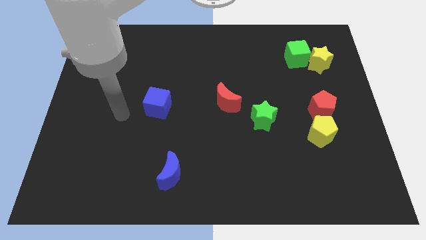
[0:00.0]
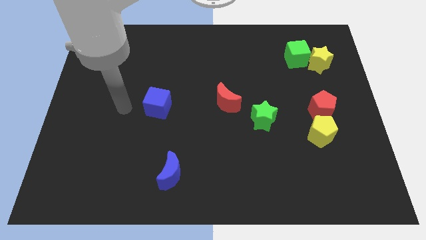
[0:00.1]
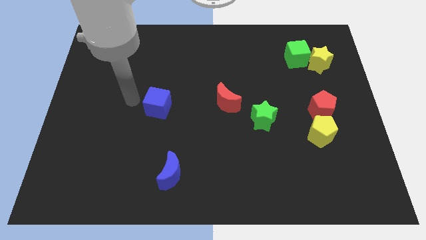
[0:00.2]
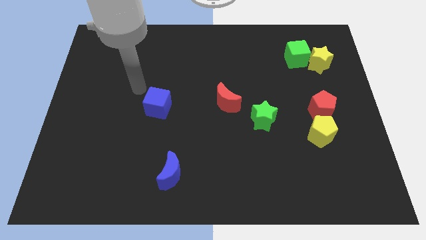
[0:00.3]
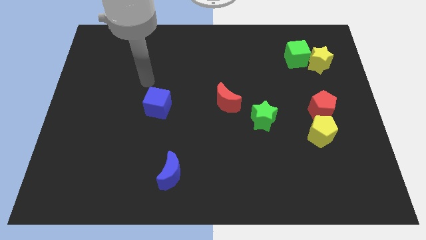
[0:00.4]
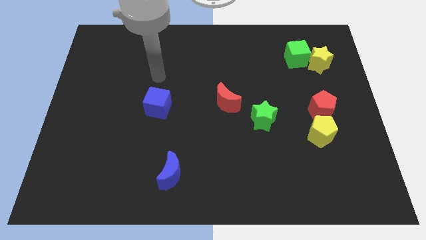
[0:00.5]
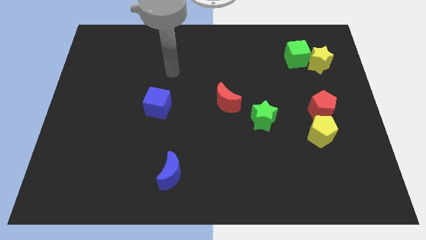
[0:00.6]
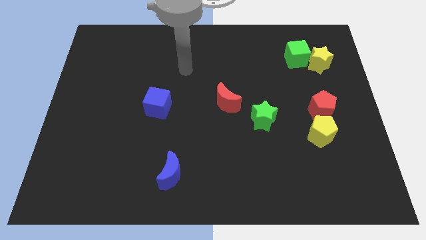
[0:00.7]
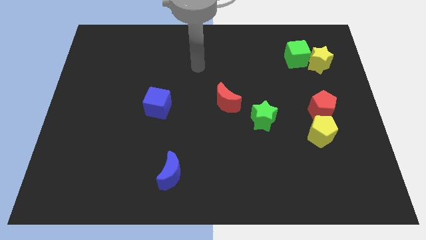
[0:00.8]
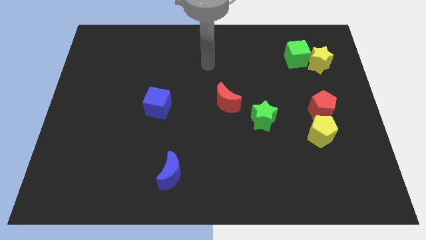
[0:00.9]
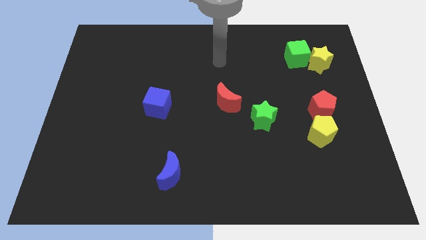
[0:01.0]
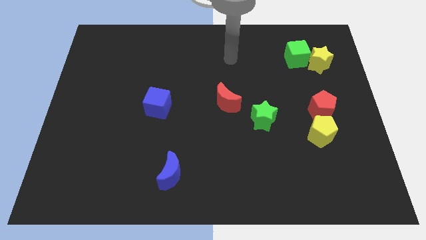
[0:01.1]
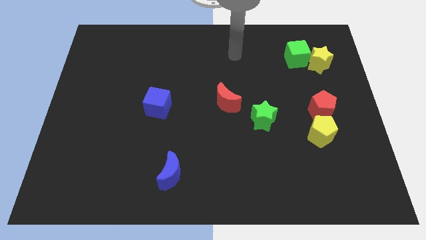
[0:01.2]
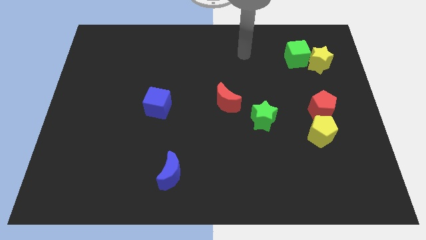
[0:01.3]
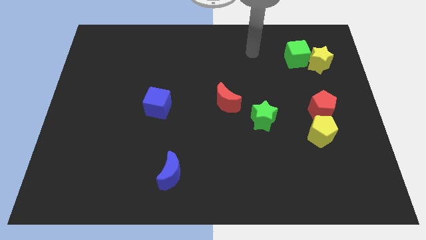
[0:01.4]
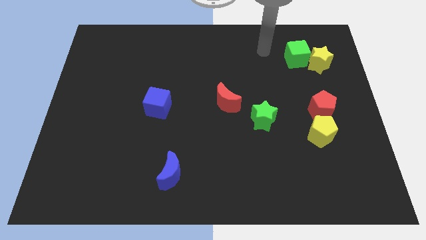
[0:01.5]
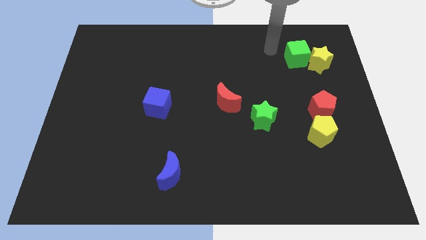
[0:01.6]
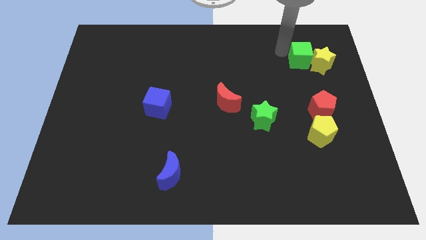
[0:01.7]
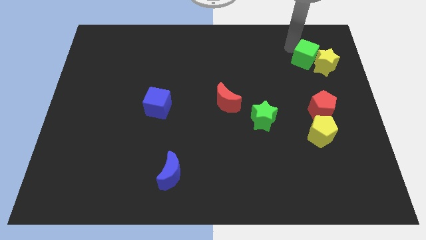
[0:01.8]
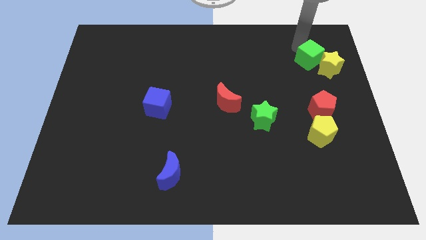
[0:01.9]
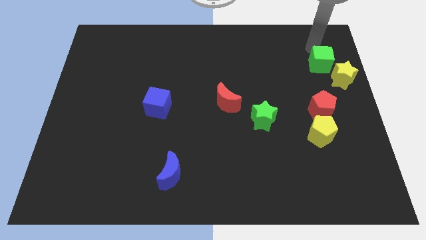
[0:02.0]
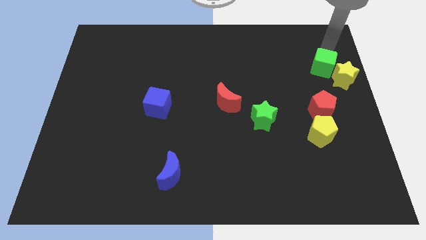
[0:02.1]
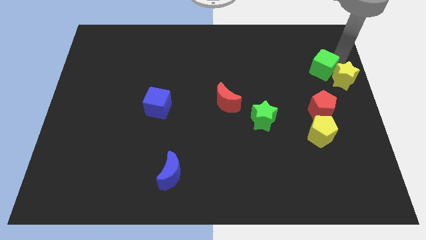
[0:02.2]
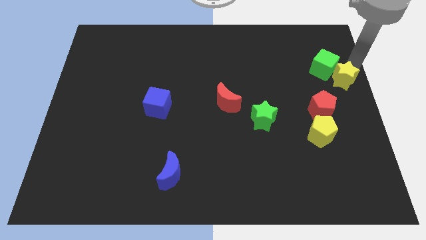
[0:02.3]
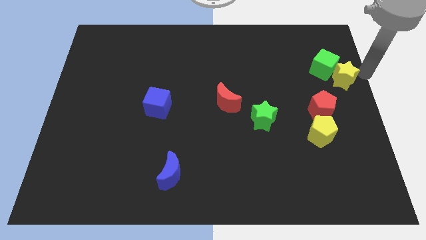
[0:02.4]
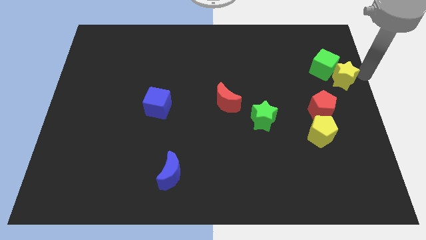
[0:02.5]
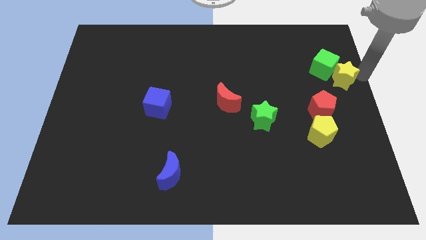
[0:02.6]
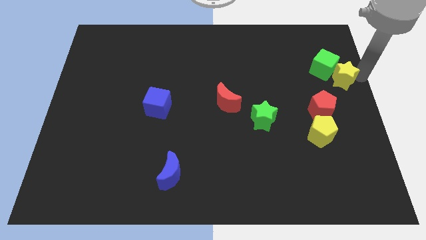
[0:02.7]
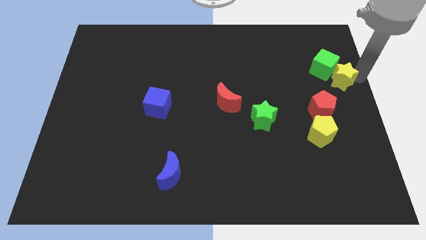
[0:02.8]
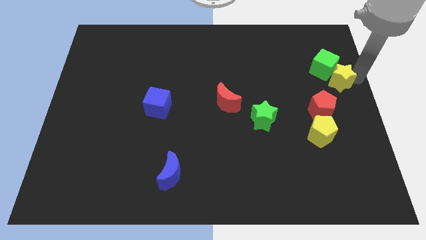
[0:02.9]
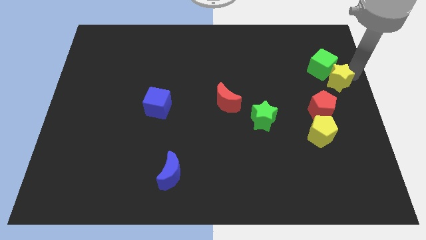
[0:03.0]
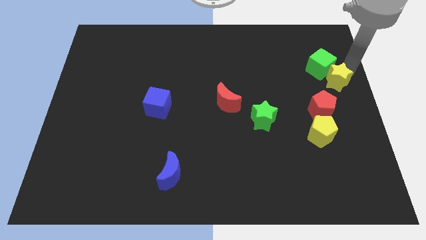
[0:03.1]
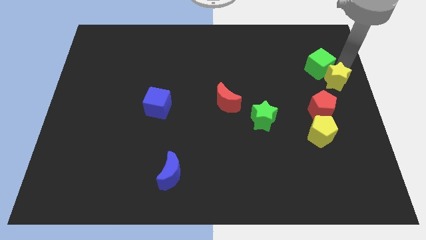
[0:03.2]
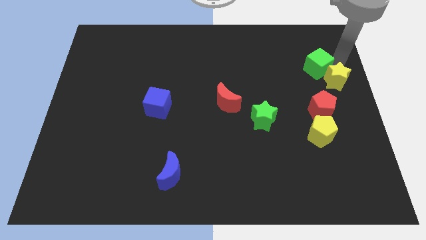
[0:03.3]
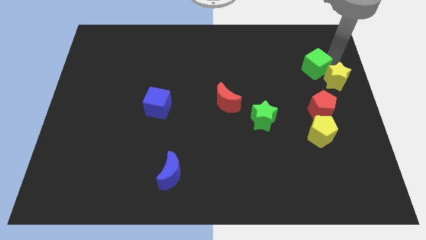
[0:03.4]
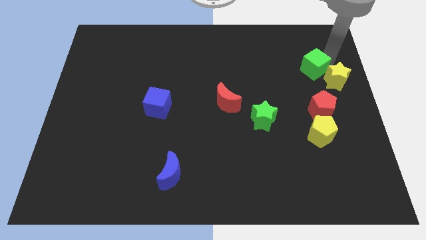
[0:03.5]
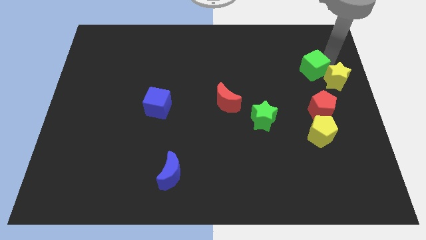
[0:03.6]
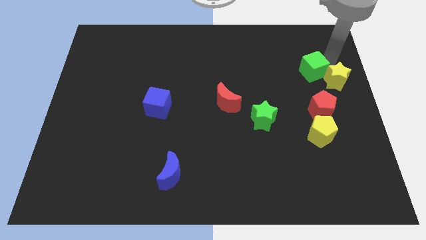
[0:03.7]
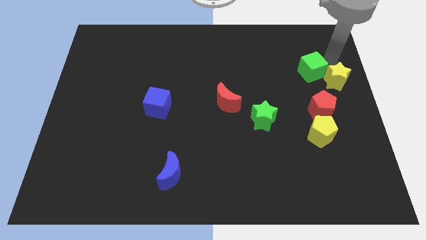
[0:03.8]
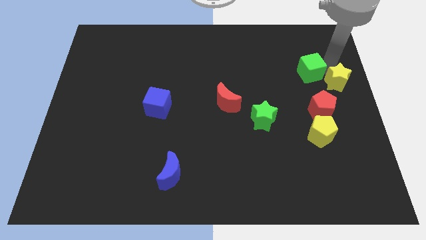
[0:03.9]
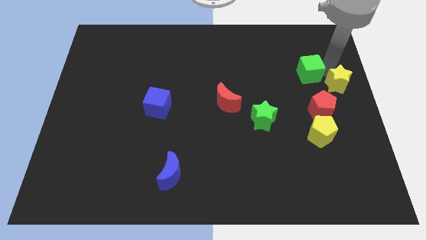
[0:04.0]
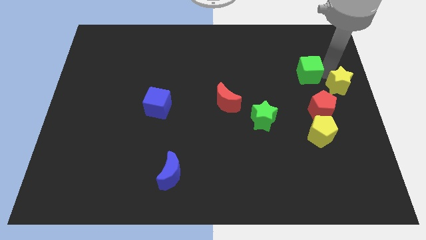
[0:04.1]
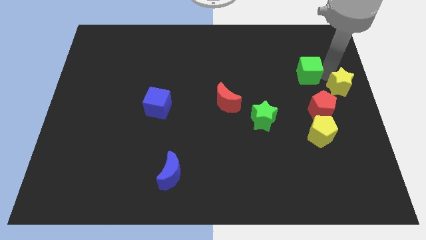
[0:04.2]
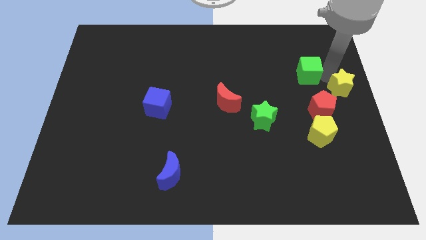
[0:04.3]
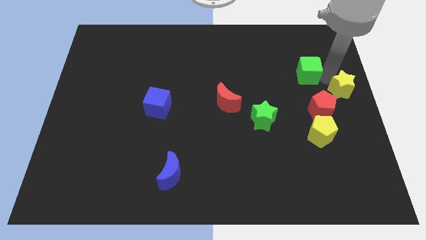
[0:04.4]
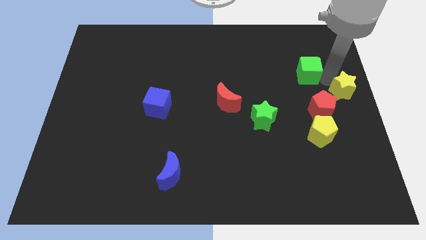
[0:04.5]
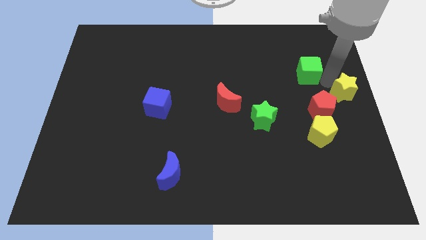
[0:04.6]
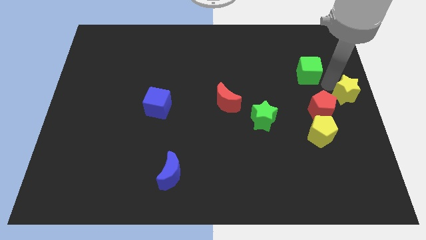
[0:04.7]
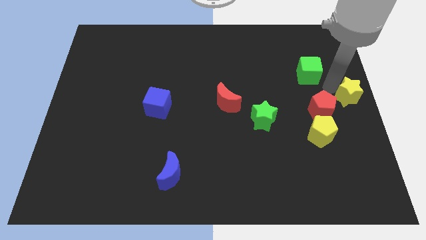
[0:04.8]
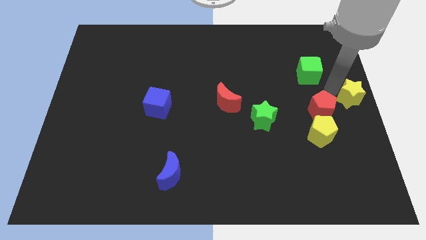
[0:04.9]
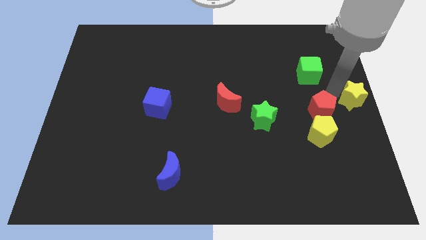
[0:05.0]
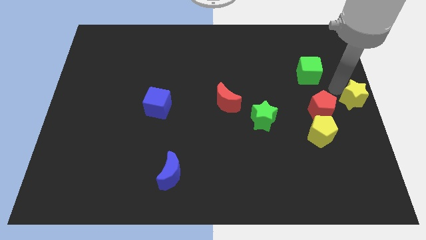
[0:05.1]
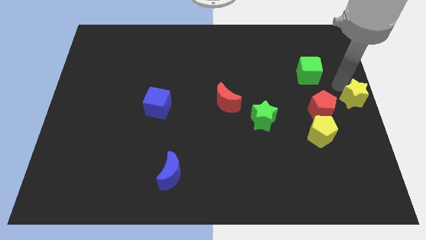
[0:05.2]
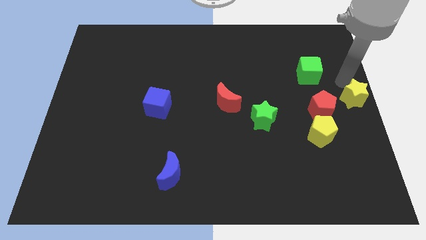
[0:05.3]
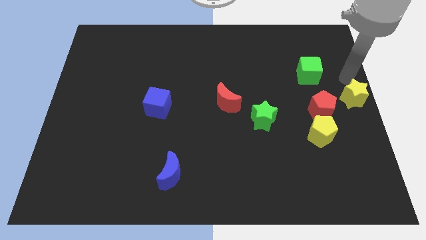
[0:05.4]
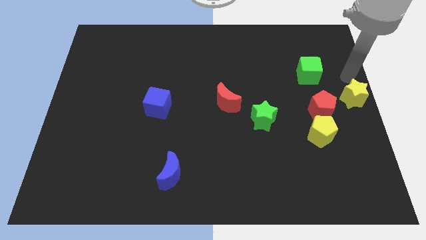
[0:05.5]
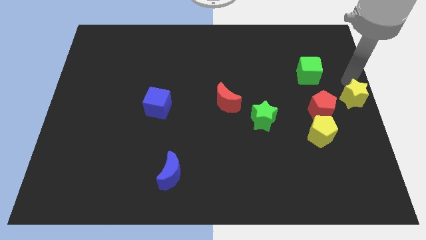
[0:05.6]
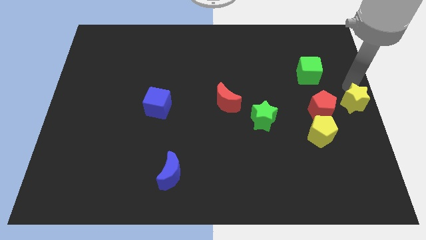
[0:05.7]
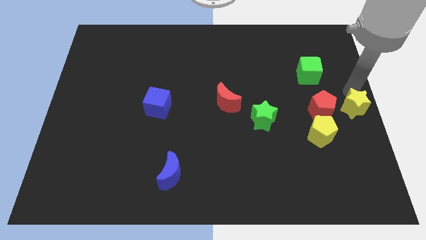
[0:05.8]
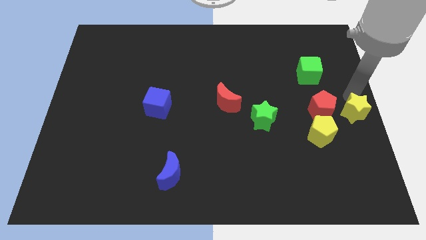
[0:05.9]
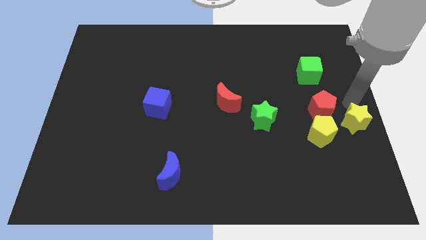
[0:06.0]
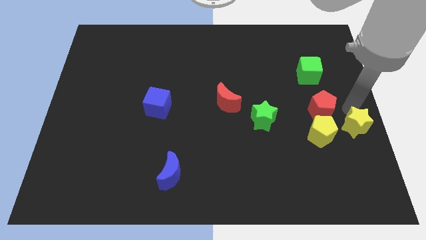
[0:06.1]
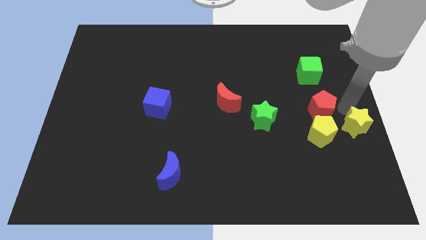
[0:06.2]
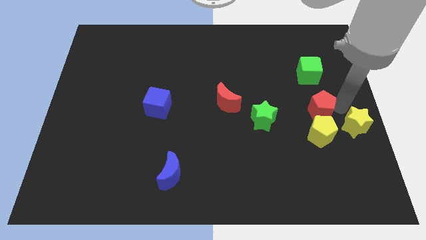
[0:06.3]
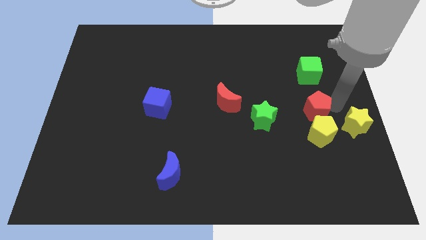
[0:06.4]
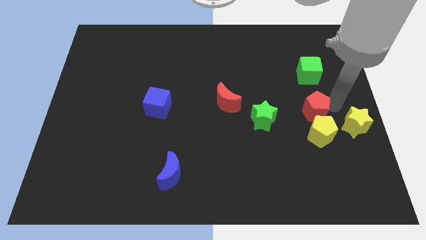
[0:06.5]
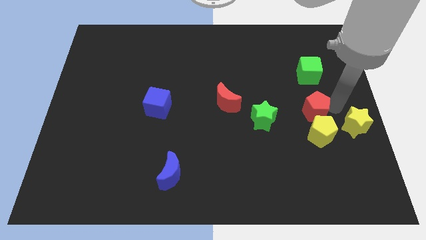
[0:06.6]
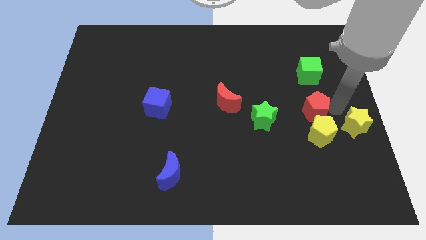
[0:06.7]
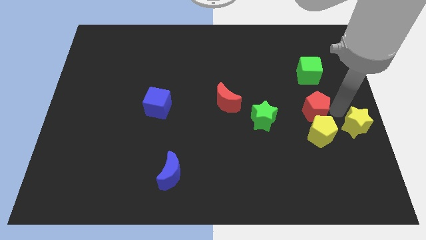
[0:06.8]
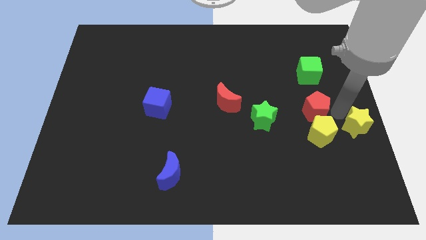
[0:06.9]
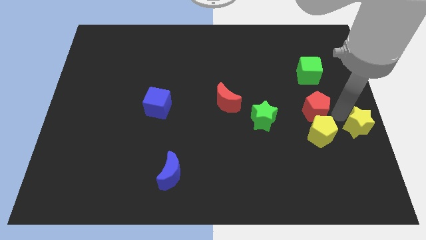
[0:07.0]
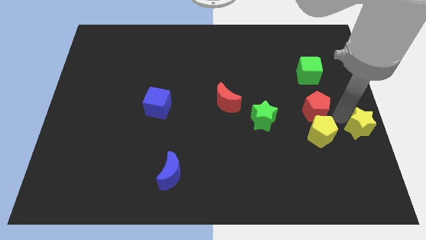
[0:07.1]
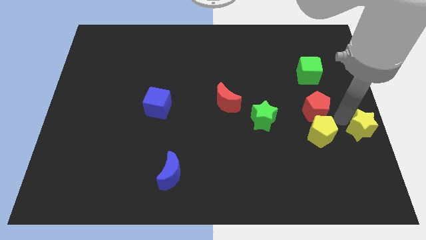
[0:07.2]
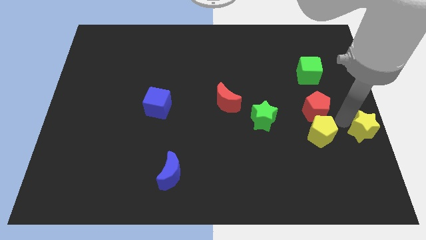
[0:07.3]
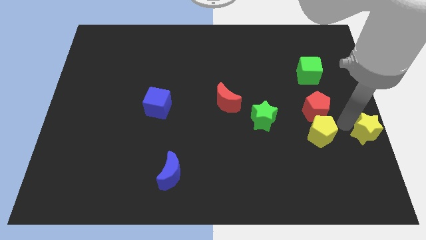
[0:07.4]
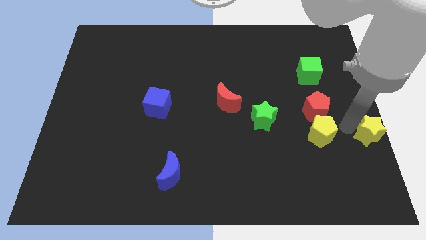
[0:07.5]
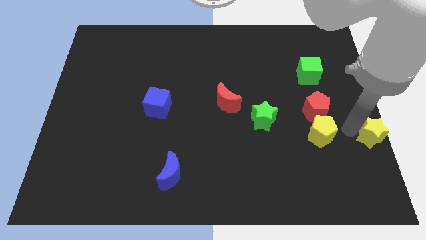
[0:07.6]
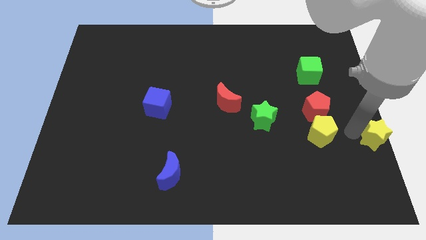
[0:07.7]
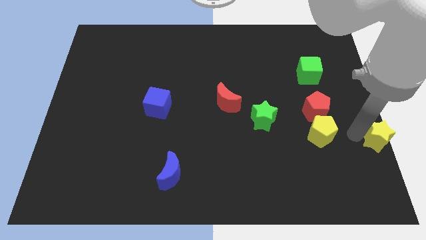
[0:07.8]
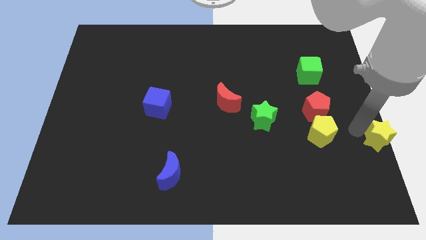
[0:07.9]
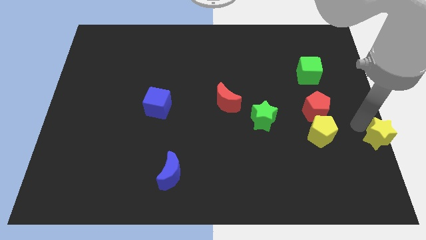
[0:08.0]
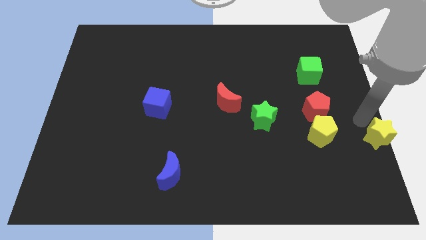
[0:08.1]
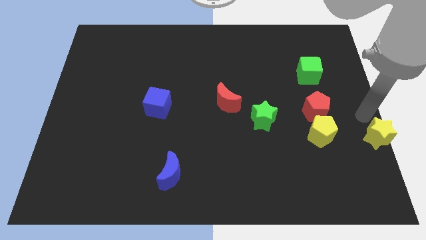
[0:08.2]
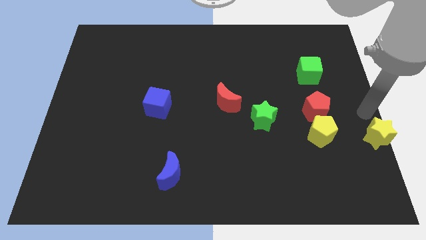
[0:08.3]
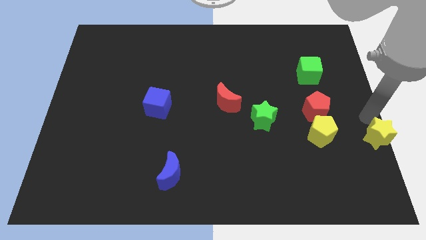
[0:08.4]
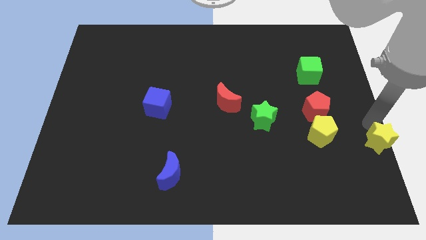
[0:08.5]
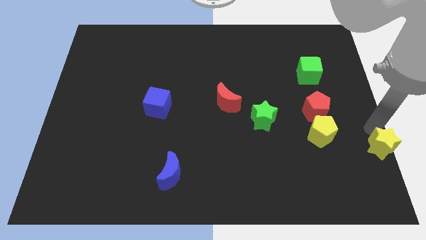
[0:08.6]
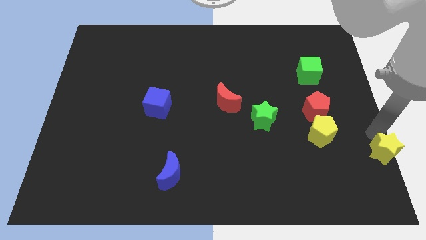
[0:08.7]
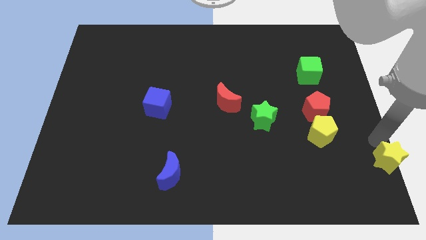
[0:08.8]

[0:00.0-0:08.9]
move the yellow star to the bottom right of the board
